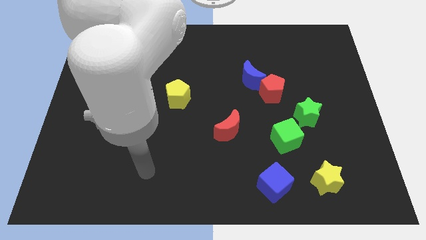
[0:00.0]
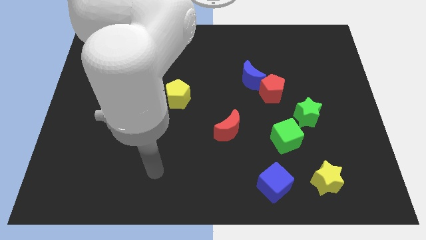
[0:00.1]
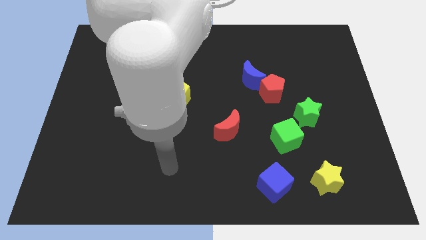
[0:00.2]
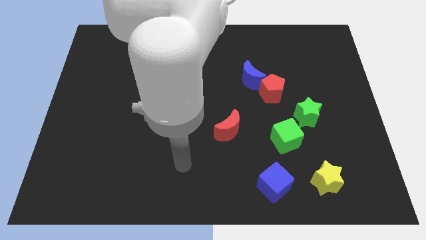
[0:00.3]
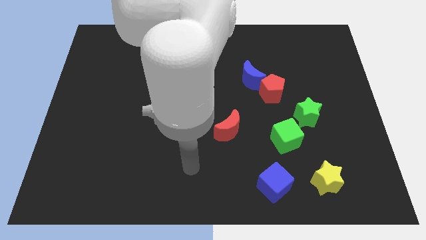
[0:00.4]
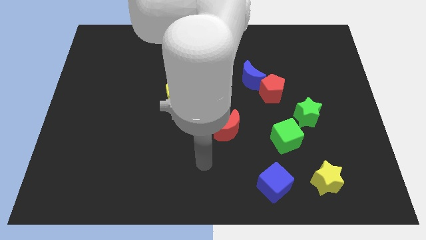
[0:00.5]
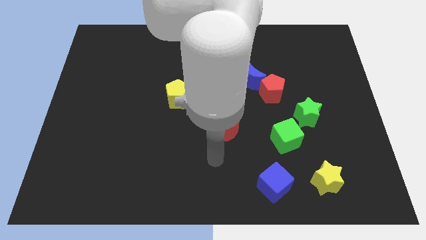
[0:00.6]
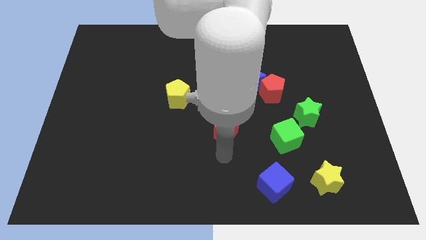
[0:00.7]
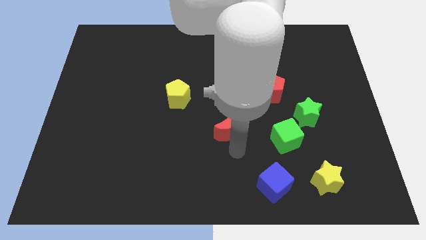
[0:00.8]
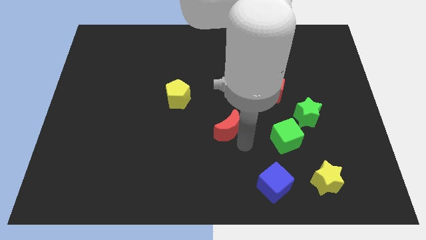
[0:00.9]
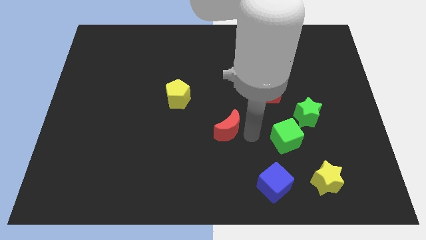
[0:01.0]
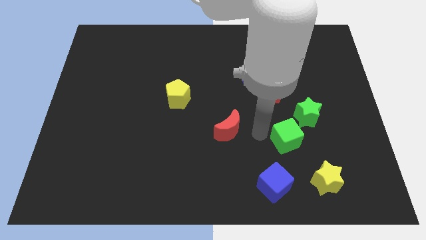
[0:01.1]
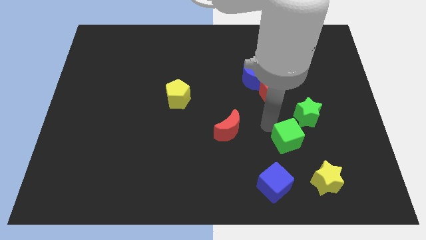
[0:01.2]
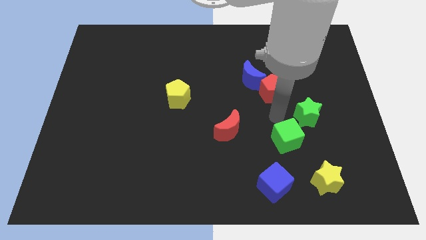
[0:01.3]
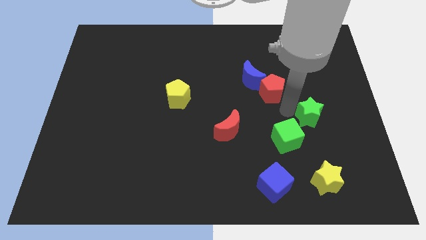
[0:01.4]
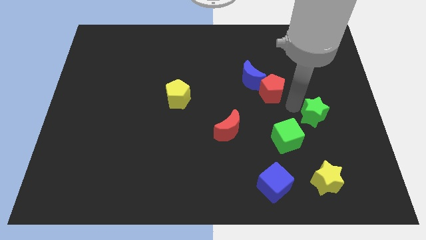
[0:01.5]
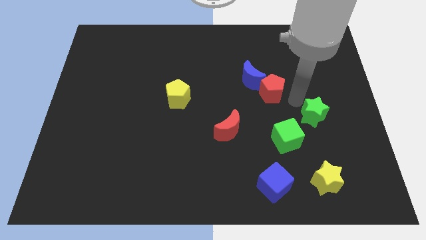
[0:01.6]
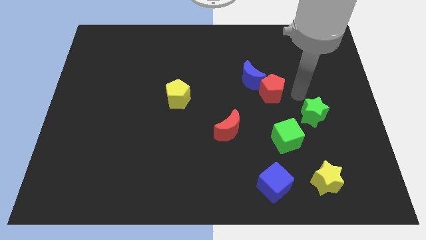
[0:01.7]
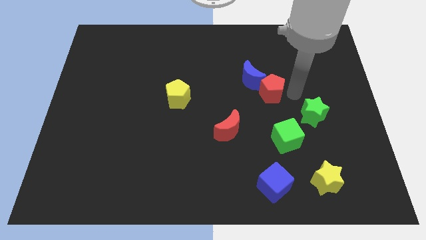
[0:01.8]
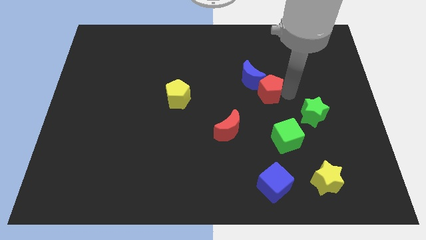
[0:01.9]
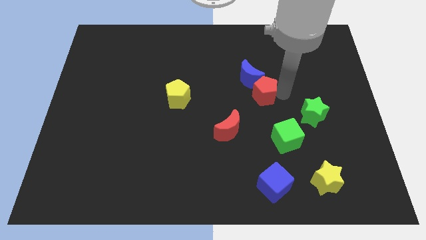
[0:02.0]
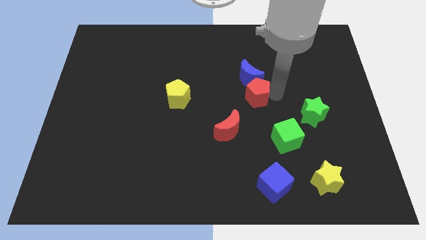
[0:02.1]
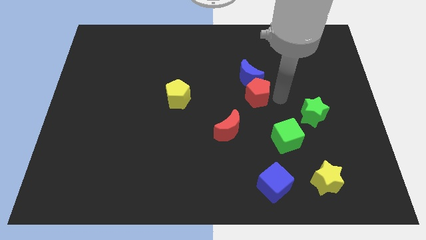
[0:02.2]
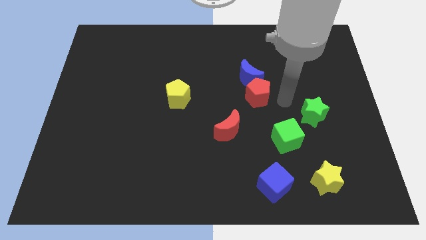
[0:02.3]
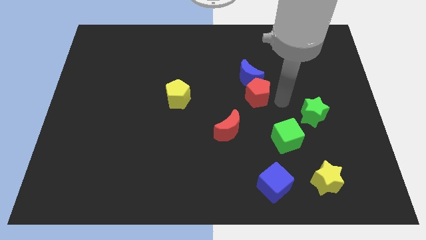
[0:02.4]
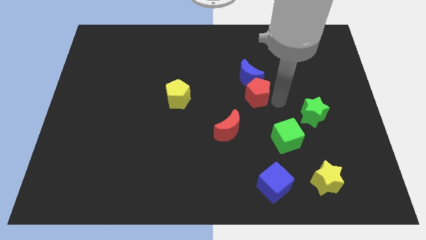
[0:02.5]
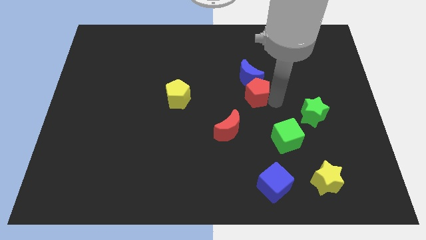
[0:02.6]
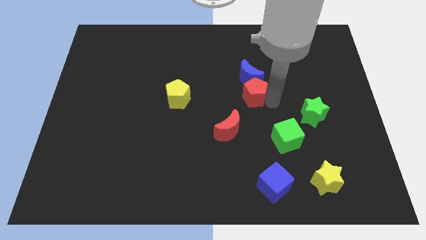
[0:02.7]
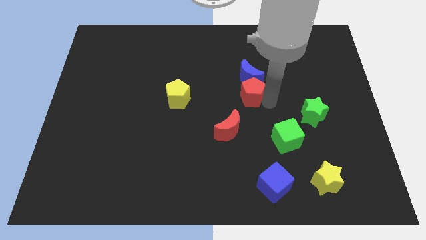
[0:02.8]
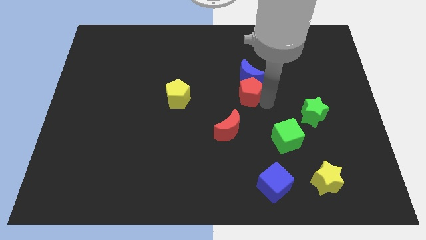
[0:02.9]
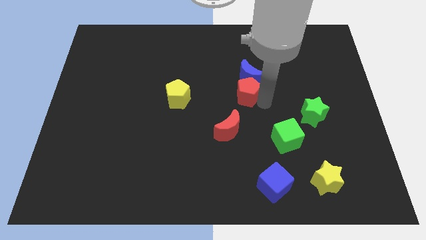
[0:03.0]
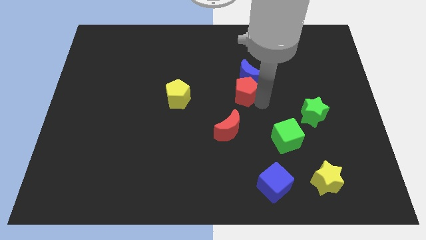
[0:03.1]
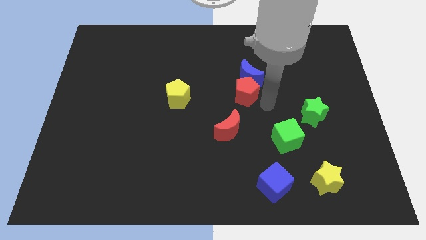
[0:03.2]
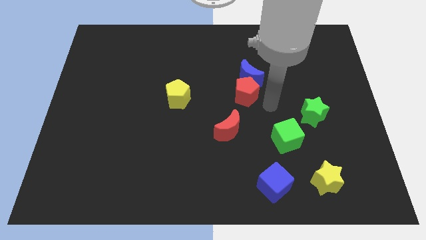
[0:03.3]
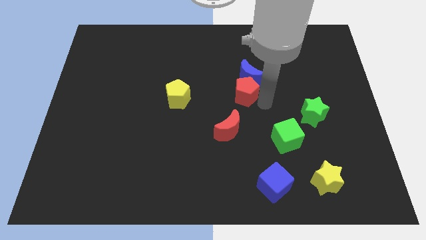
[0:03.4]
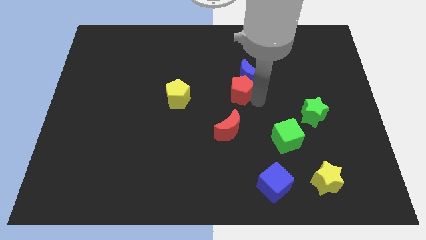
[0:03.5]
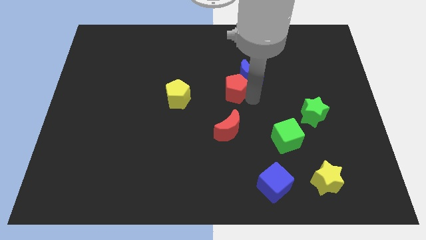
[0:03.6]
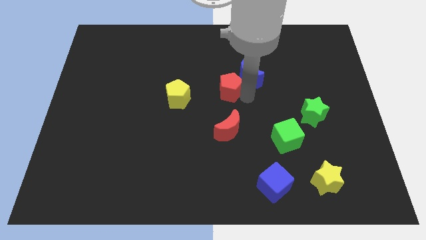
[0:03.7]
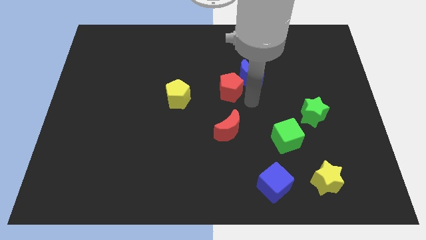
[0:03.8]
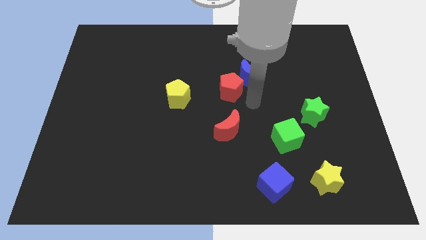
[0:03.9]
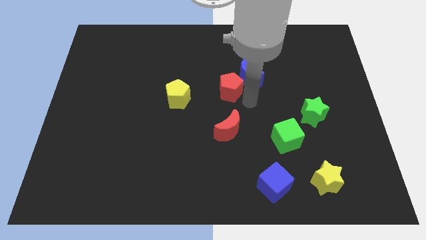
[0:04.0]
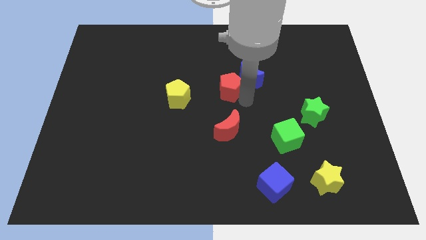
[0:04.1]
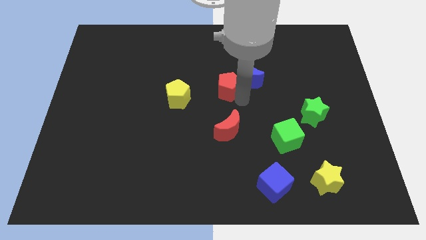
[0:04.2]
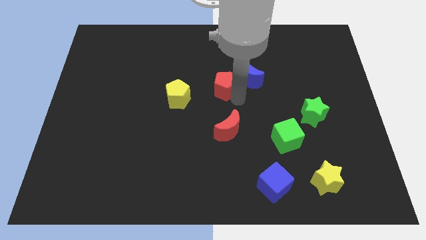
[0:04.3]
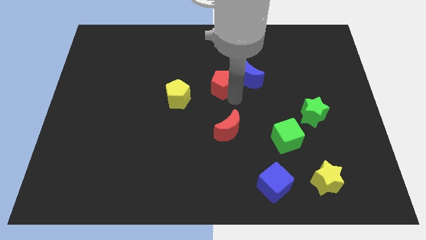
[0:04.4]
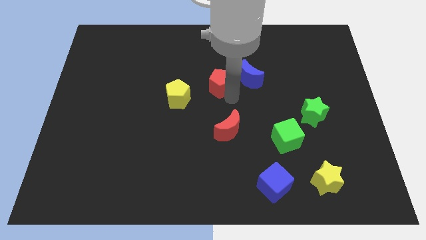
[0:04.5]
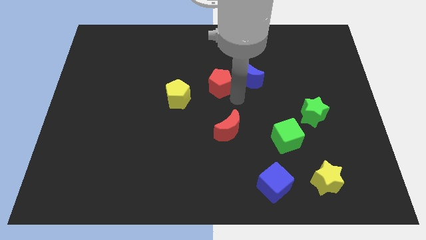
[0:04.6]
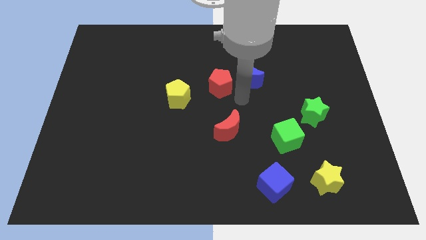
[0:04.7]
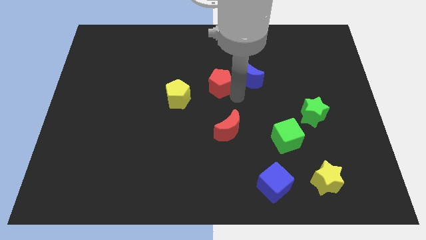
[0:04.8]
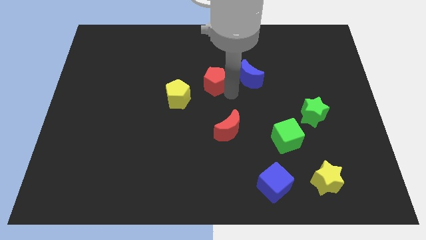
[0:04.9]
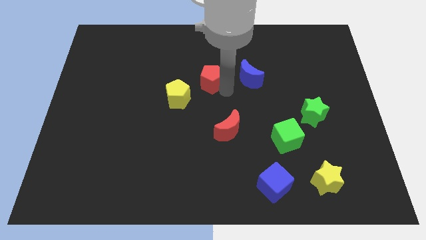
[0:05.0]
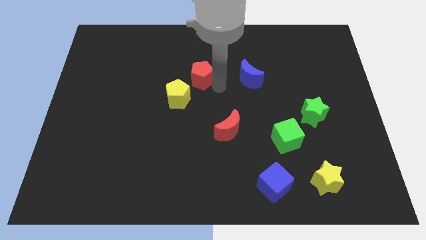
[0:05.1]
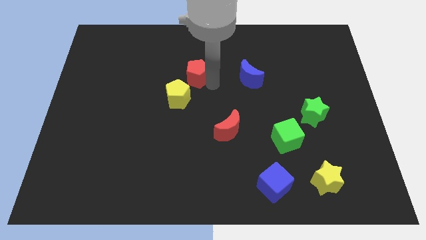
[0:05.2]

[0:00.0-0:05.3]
slide the red pentagon to the top side of the yellow pentagon

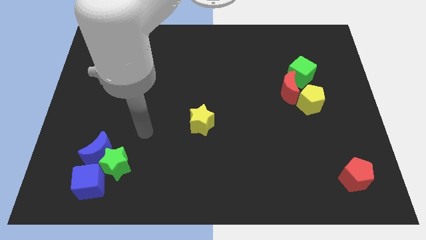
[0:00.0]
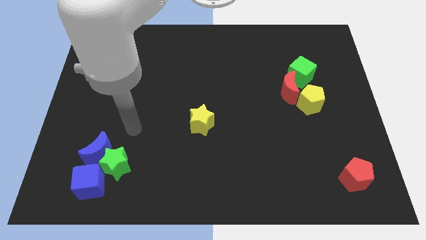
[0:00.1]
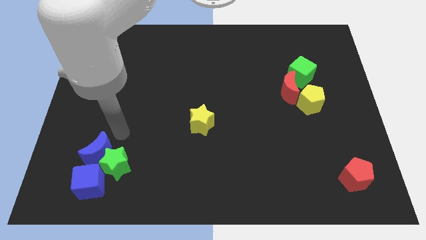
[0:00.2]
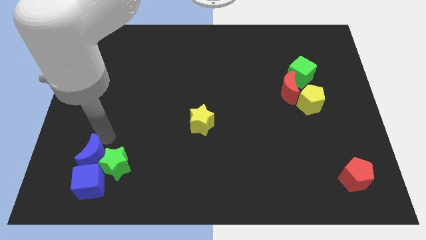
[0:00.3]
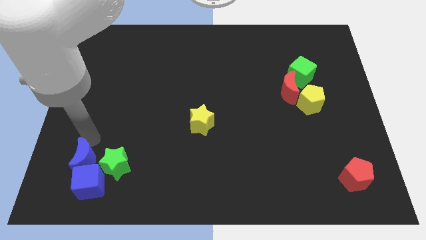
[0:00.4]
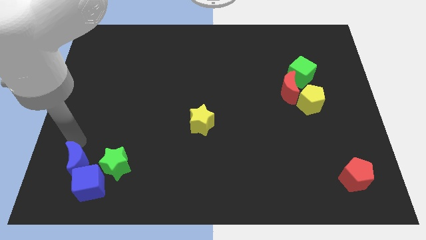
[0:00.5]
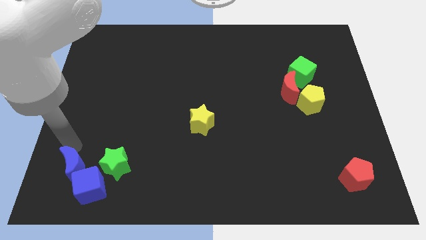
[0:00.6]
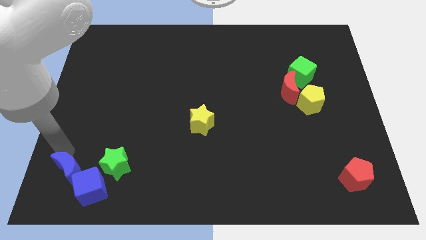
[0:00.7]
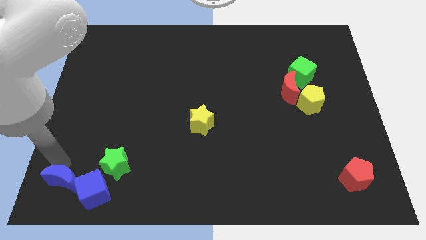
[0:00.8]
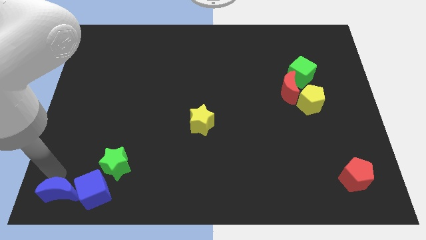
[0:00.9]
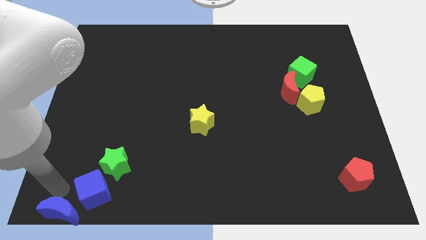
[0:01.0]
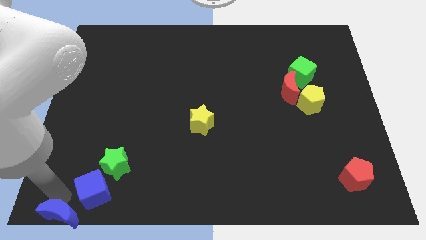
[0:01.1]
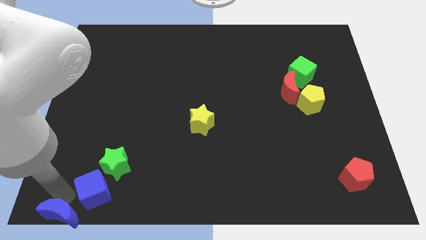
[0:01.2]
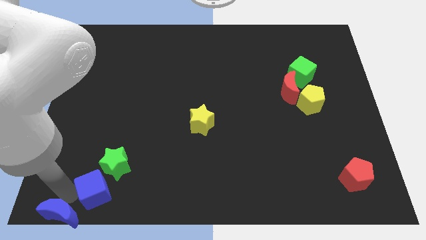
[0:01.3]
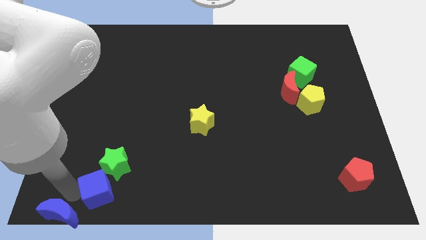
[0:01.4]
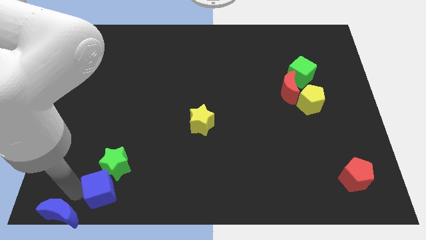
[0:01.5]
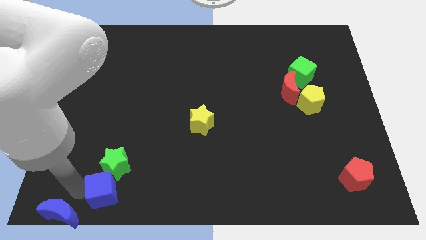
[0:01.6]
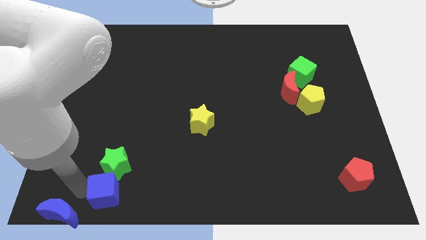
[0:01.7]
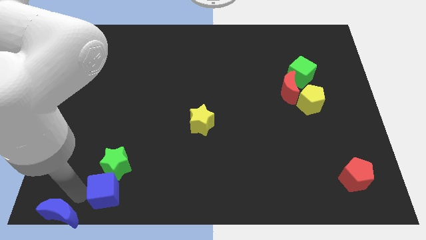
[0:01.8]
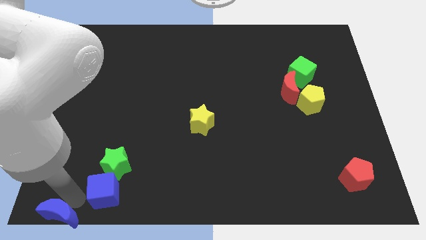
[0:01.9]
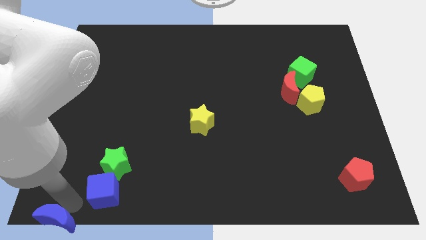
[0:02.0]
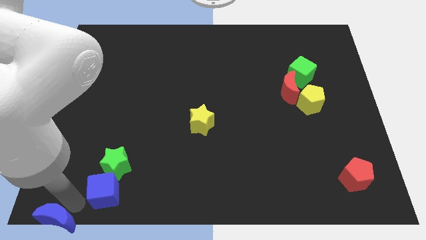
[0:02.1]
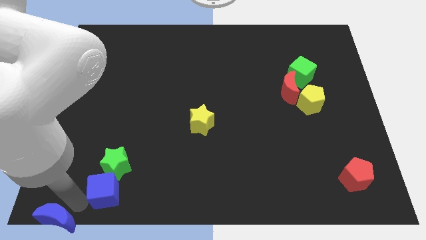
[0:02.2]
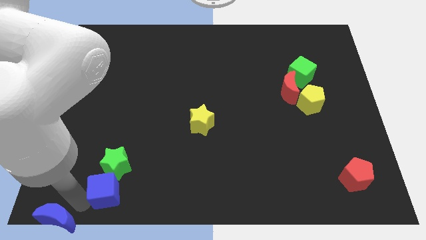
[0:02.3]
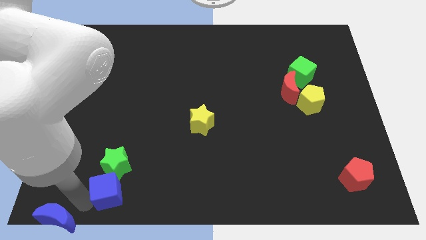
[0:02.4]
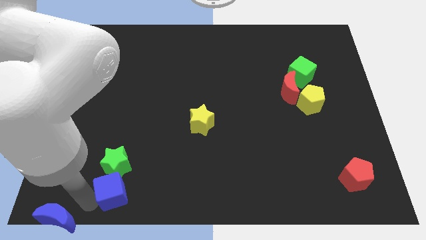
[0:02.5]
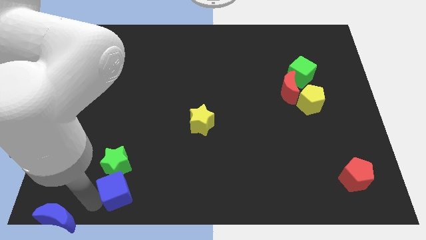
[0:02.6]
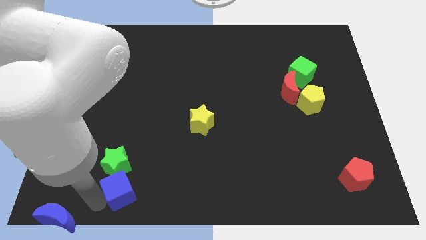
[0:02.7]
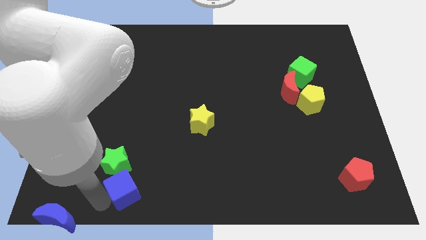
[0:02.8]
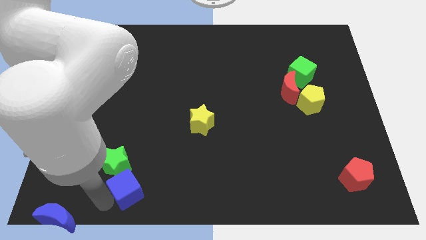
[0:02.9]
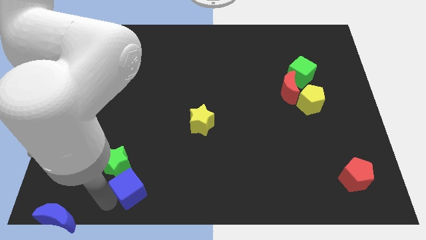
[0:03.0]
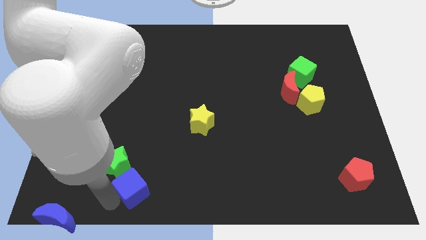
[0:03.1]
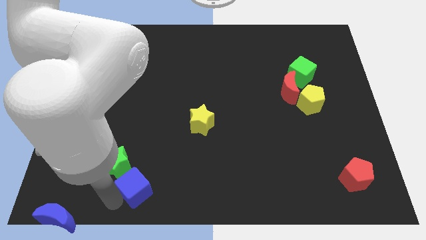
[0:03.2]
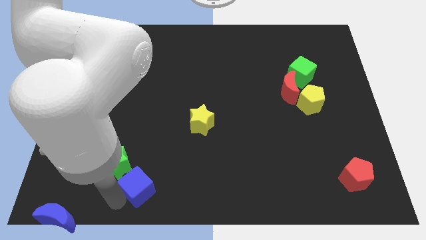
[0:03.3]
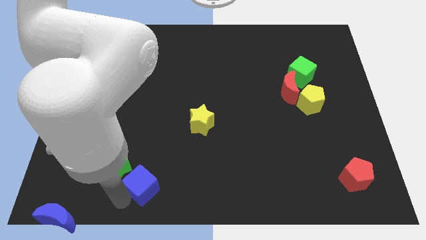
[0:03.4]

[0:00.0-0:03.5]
move the blue cube just right of the green star
